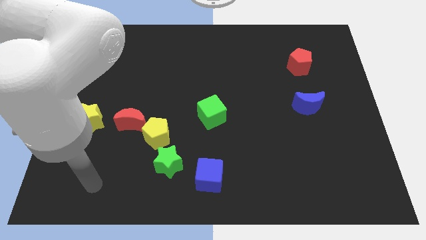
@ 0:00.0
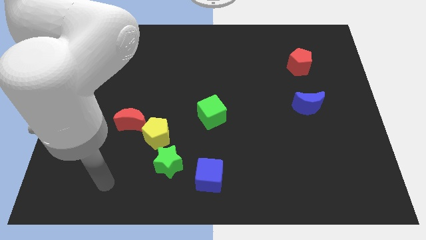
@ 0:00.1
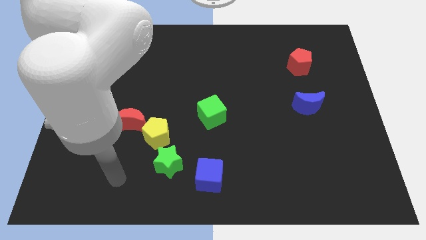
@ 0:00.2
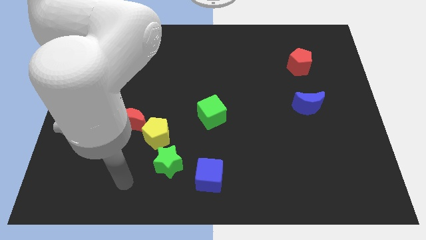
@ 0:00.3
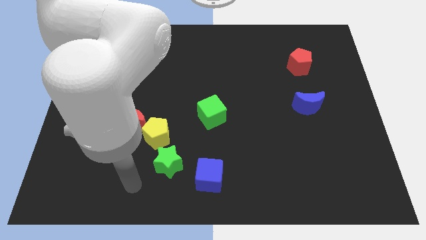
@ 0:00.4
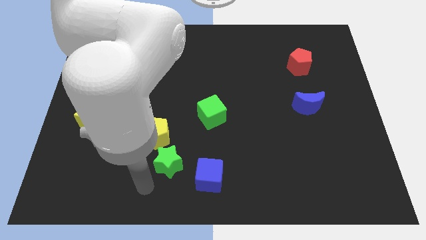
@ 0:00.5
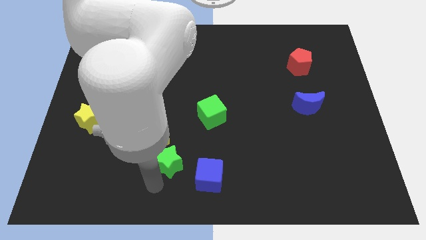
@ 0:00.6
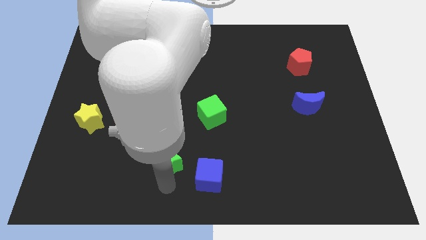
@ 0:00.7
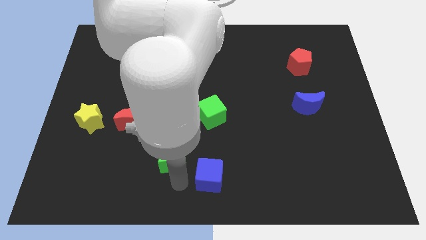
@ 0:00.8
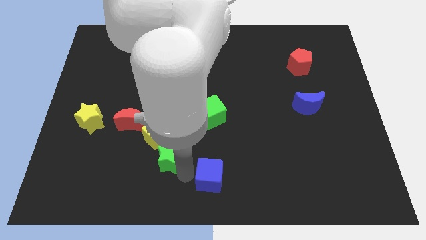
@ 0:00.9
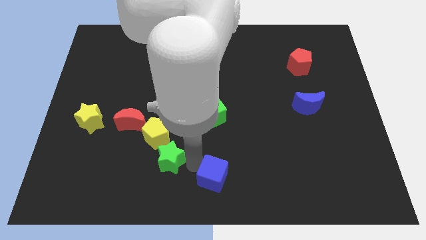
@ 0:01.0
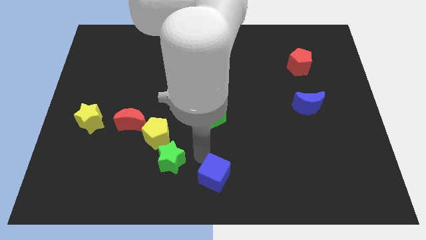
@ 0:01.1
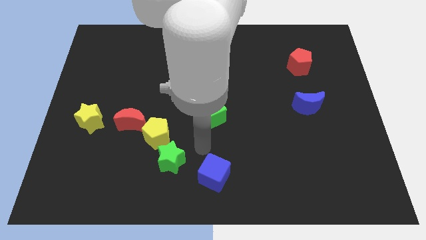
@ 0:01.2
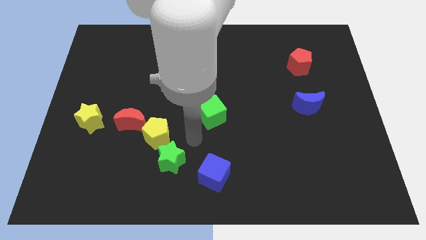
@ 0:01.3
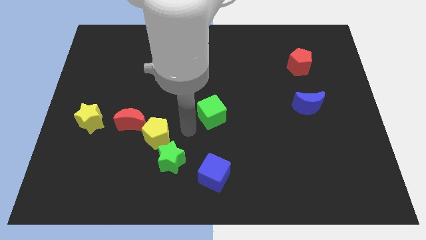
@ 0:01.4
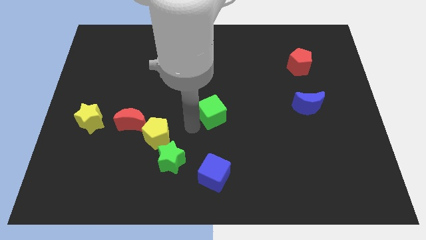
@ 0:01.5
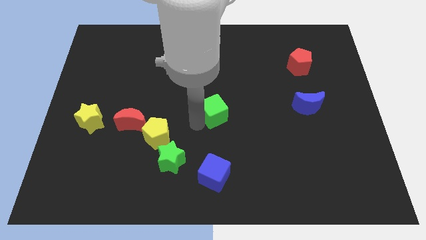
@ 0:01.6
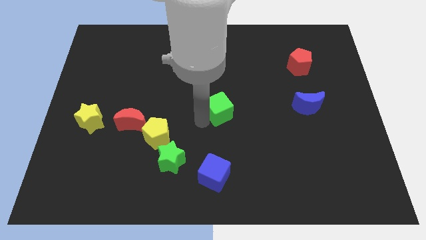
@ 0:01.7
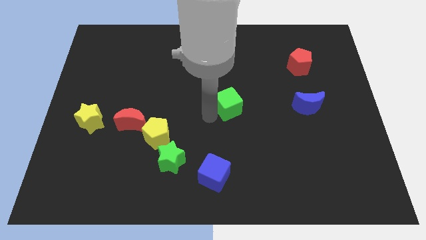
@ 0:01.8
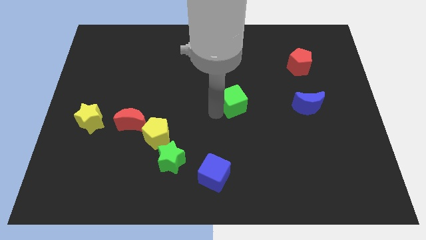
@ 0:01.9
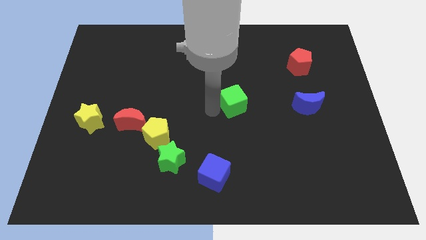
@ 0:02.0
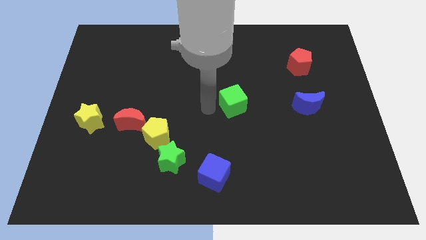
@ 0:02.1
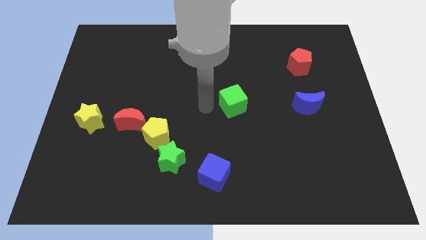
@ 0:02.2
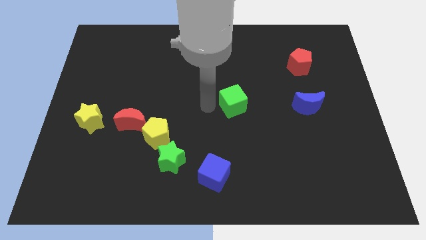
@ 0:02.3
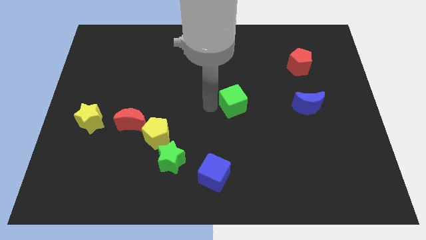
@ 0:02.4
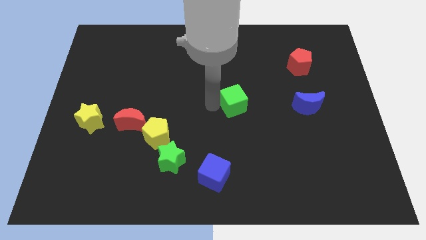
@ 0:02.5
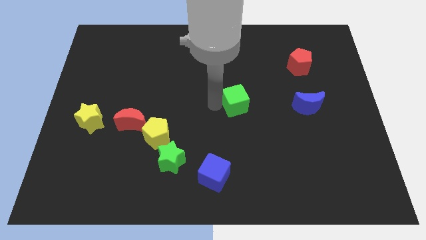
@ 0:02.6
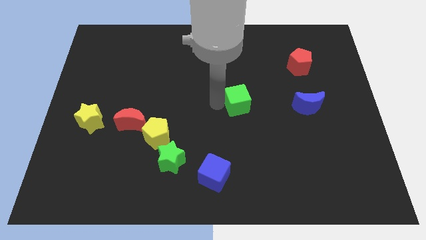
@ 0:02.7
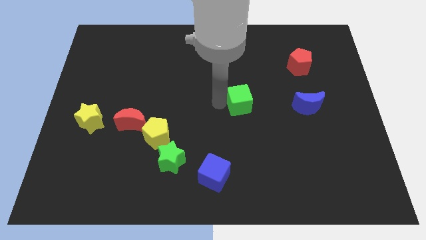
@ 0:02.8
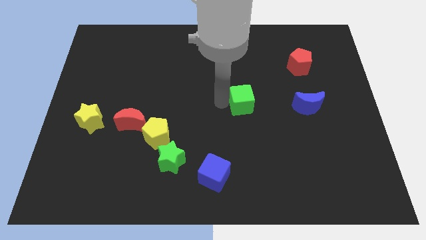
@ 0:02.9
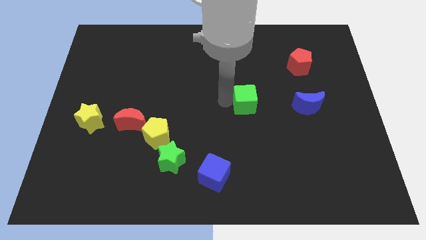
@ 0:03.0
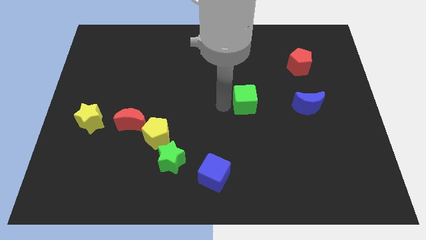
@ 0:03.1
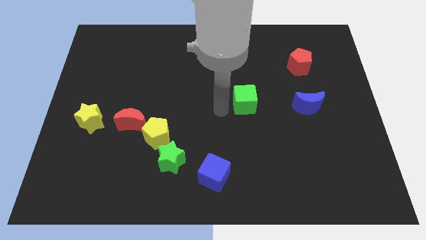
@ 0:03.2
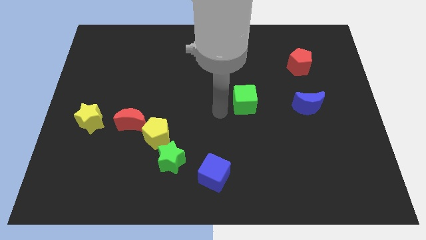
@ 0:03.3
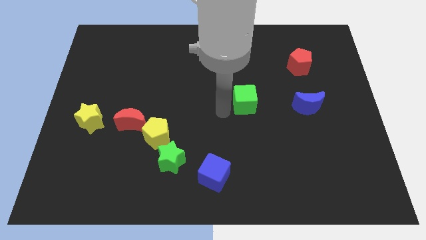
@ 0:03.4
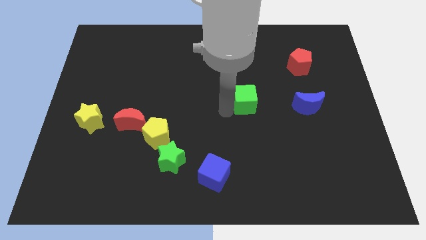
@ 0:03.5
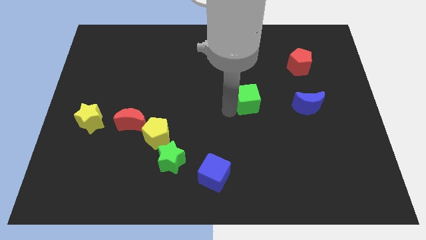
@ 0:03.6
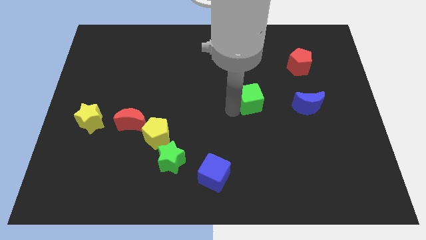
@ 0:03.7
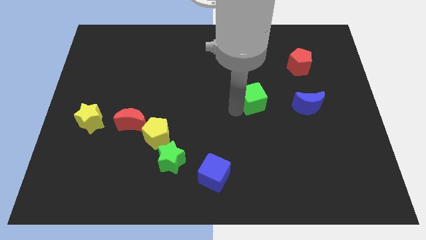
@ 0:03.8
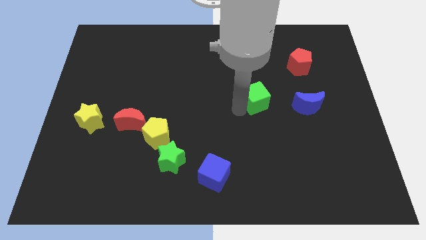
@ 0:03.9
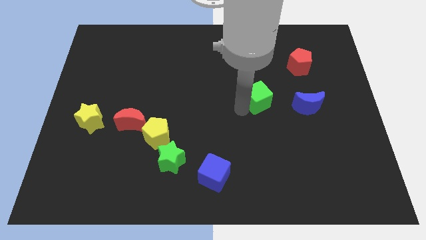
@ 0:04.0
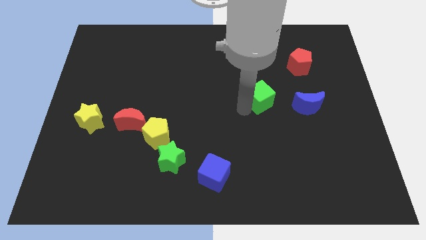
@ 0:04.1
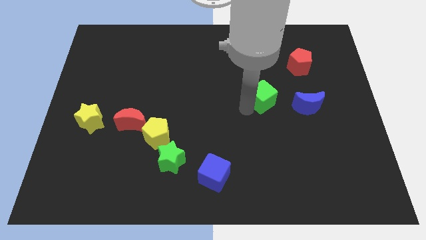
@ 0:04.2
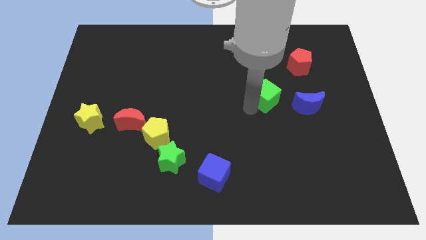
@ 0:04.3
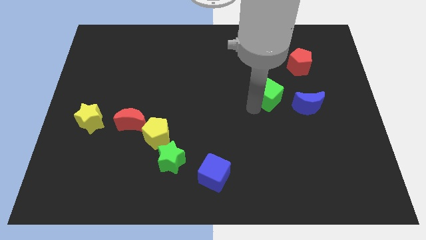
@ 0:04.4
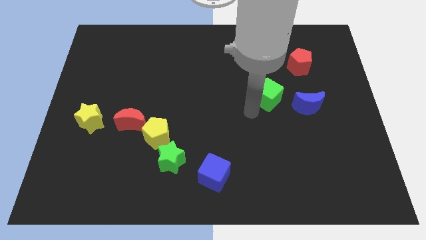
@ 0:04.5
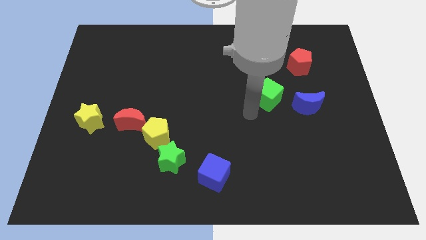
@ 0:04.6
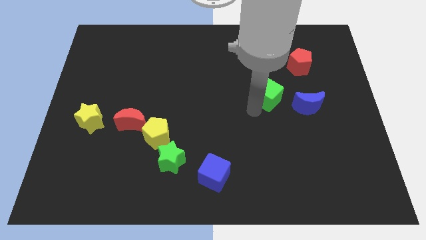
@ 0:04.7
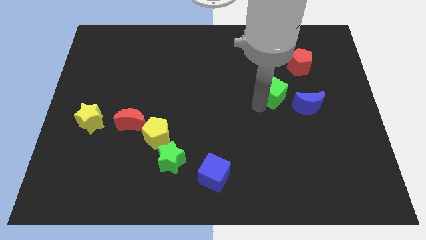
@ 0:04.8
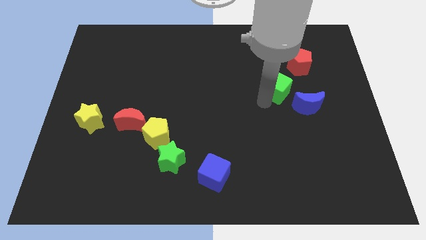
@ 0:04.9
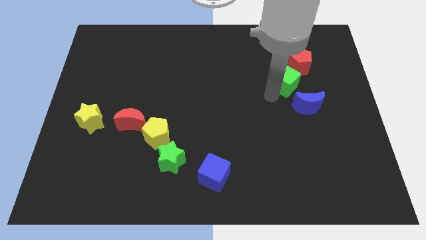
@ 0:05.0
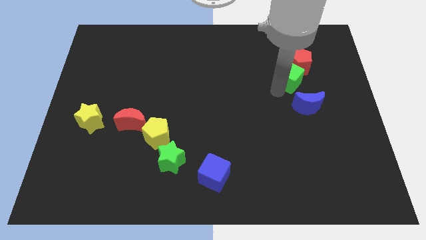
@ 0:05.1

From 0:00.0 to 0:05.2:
push the green cube to the red pentagon
